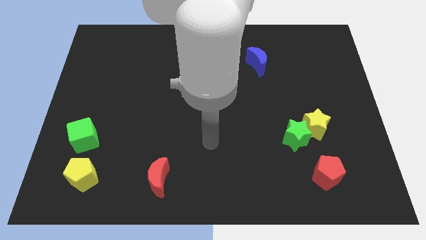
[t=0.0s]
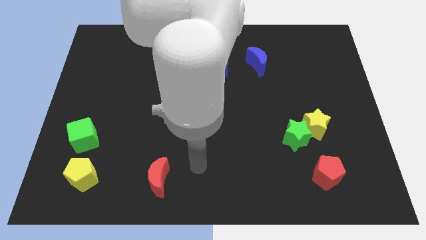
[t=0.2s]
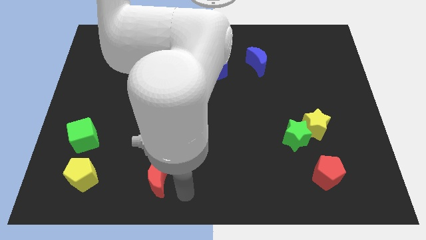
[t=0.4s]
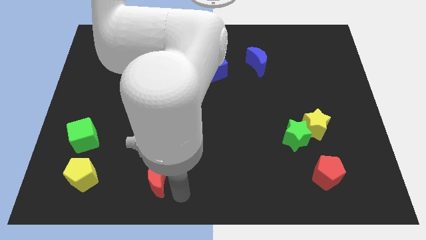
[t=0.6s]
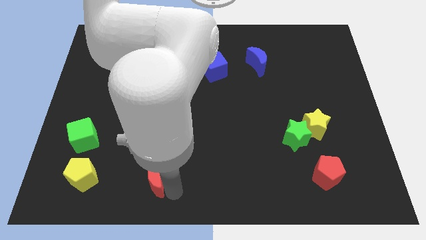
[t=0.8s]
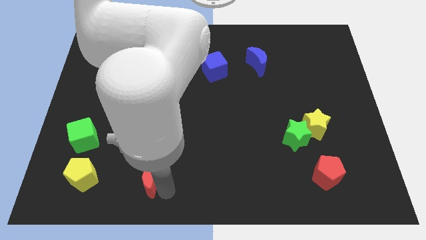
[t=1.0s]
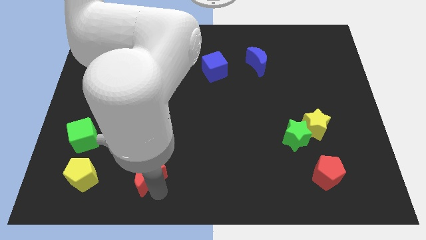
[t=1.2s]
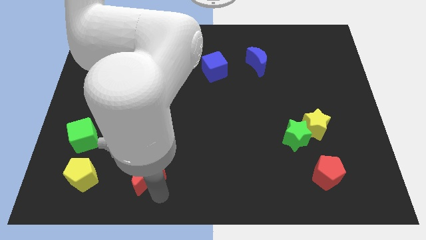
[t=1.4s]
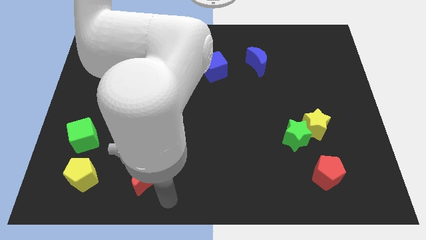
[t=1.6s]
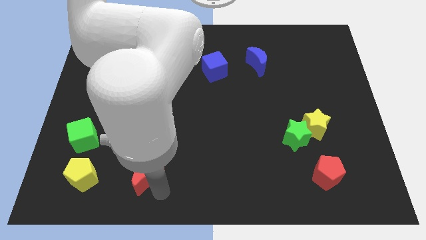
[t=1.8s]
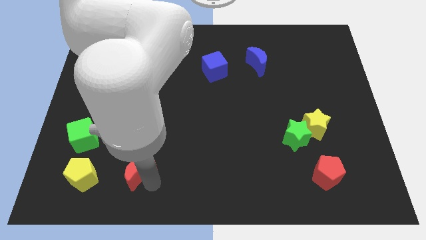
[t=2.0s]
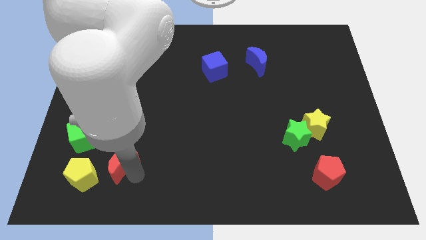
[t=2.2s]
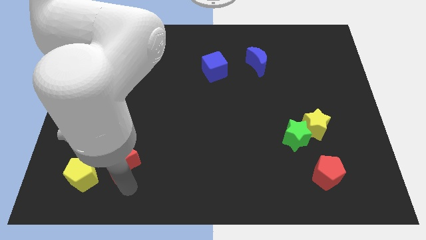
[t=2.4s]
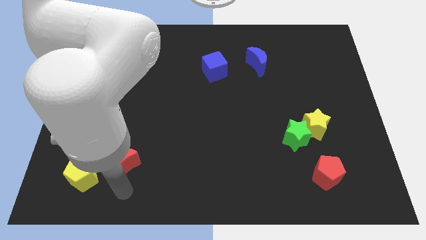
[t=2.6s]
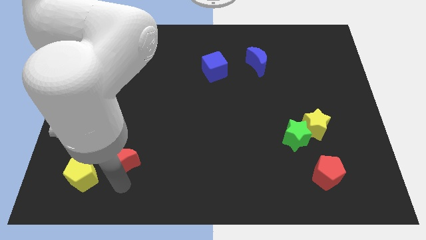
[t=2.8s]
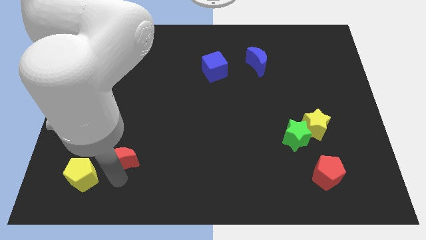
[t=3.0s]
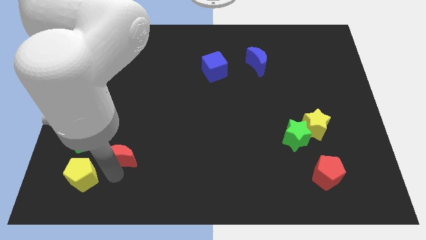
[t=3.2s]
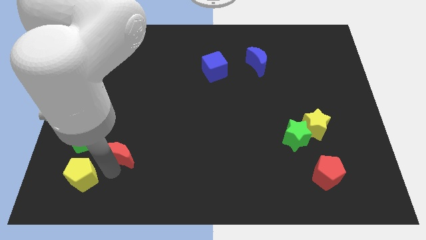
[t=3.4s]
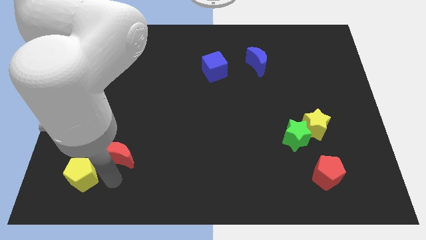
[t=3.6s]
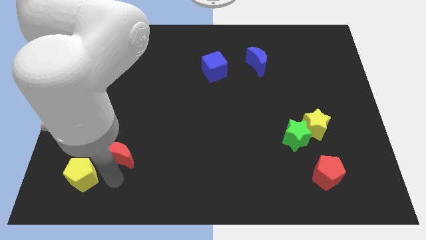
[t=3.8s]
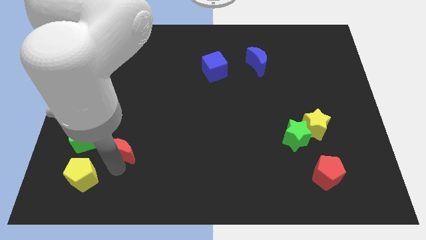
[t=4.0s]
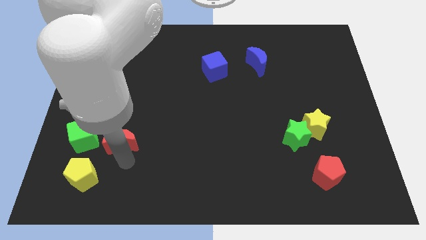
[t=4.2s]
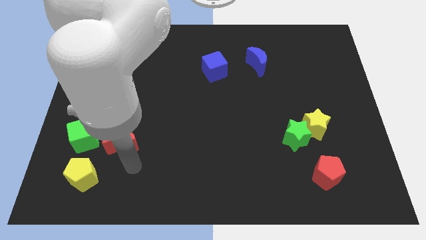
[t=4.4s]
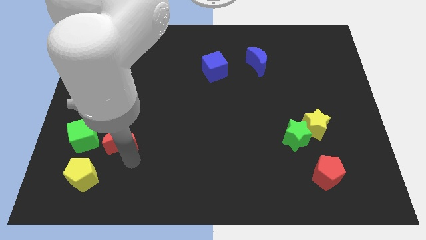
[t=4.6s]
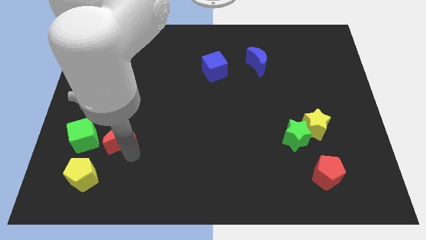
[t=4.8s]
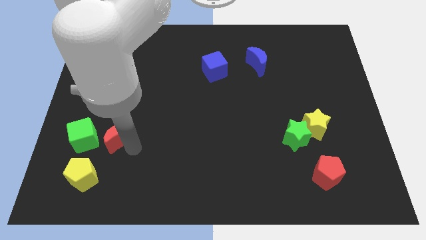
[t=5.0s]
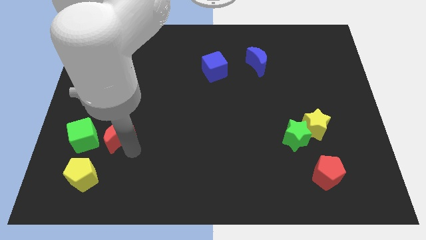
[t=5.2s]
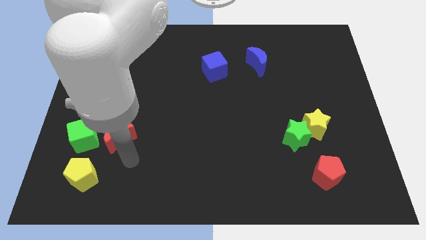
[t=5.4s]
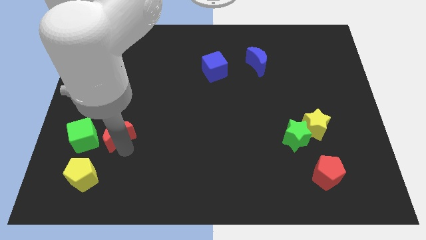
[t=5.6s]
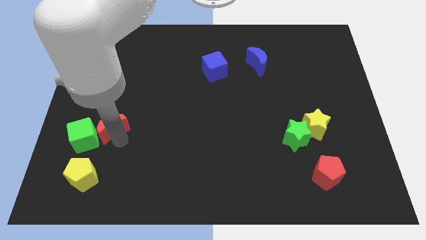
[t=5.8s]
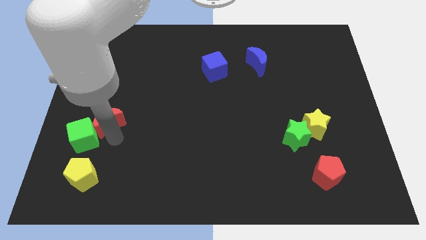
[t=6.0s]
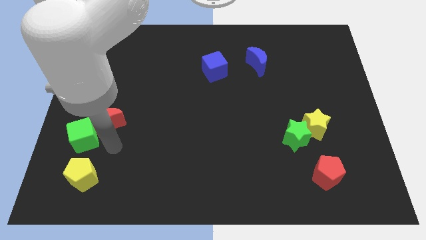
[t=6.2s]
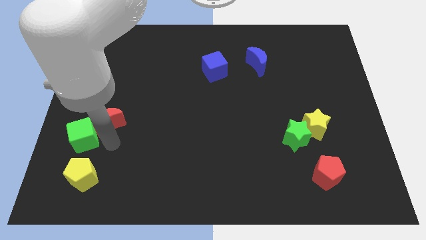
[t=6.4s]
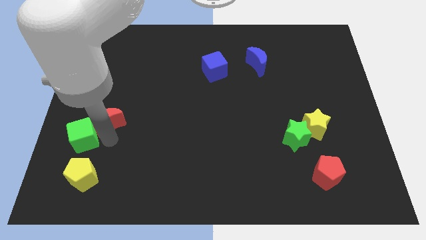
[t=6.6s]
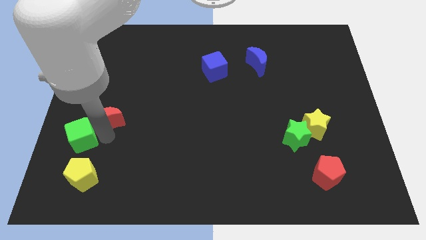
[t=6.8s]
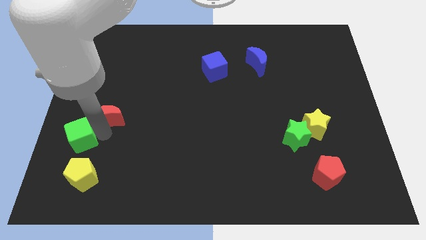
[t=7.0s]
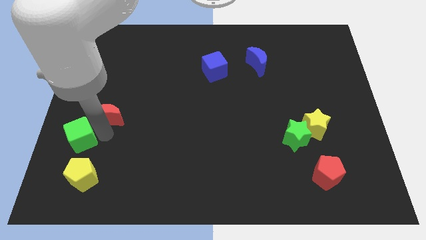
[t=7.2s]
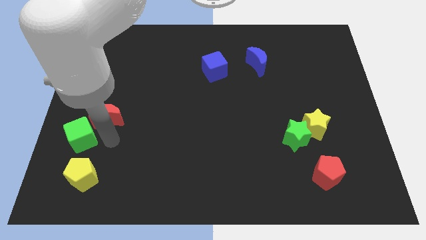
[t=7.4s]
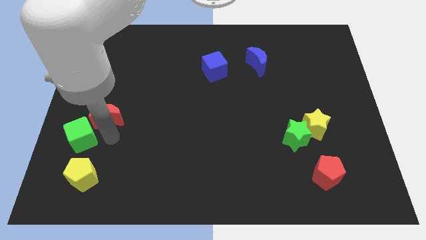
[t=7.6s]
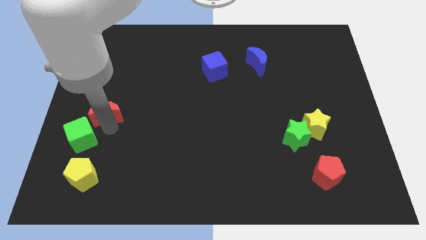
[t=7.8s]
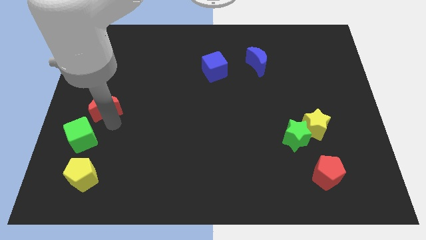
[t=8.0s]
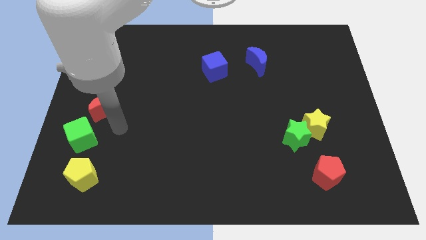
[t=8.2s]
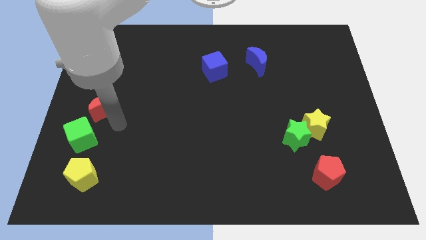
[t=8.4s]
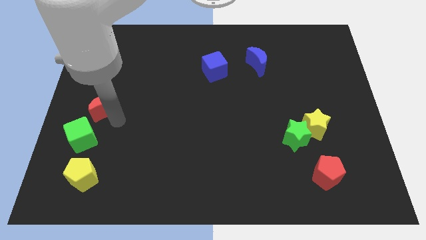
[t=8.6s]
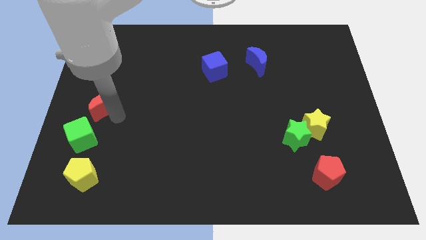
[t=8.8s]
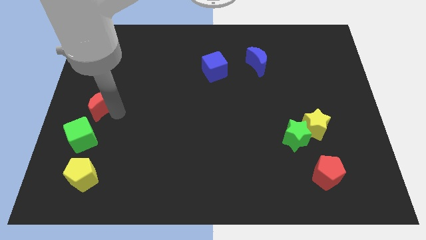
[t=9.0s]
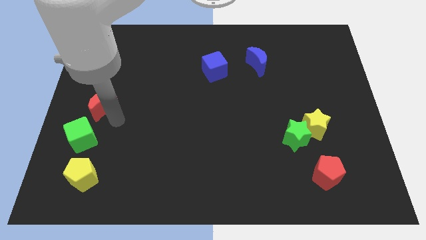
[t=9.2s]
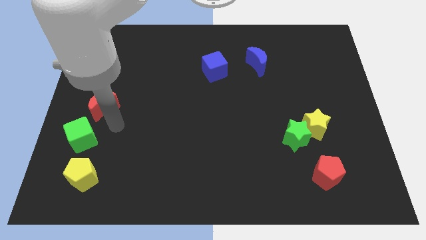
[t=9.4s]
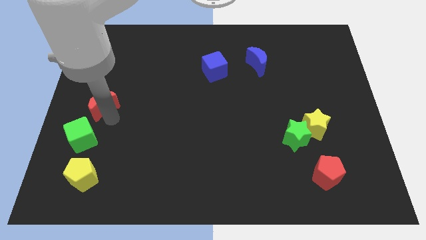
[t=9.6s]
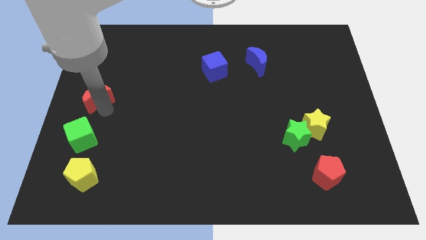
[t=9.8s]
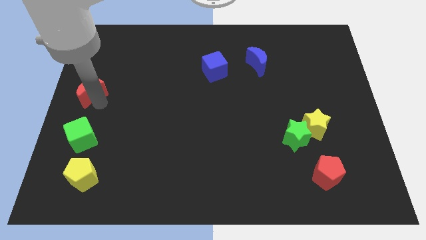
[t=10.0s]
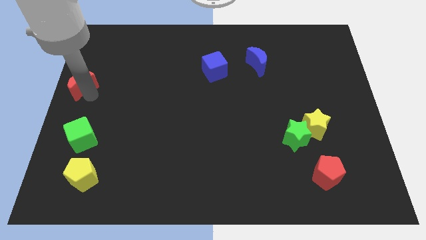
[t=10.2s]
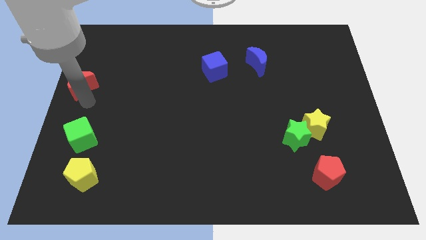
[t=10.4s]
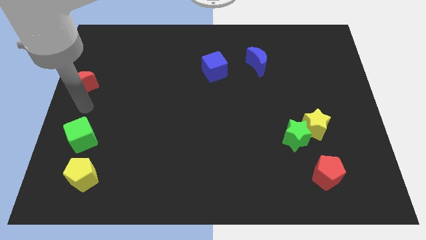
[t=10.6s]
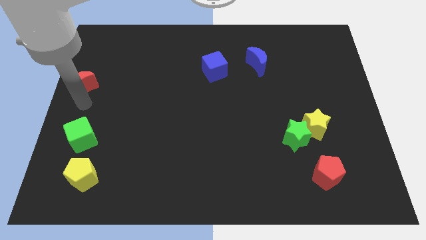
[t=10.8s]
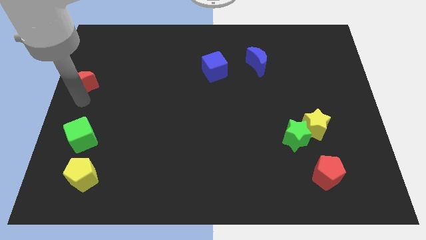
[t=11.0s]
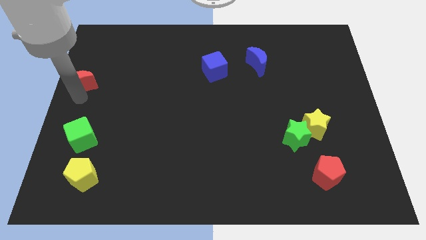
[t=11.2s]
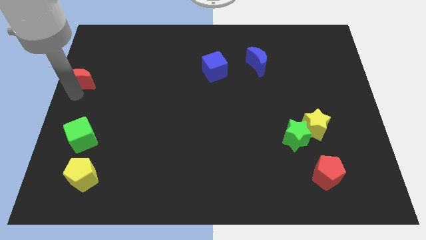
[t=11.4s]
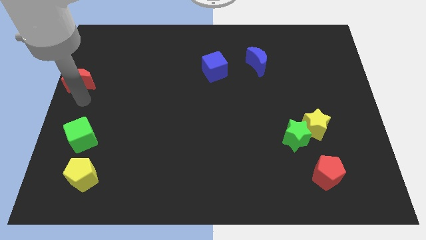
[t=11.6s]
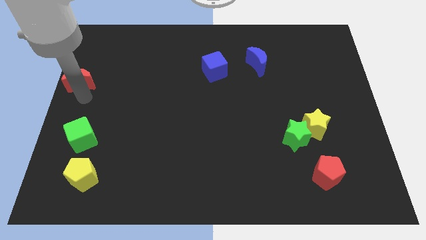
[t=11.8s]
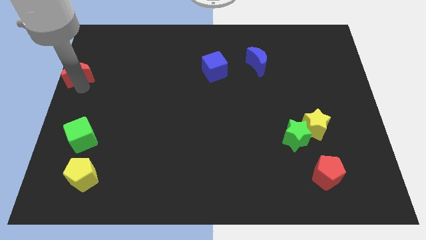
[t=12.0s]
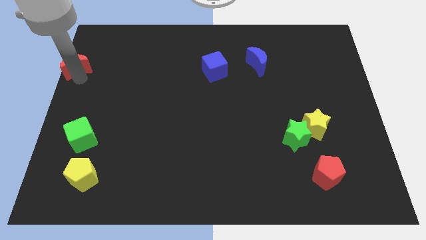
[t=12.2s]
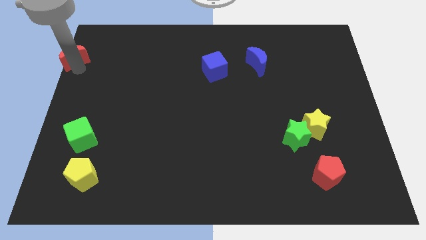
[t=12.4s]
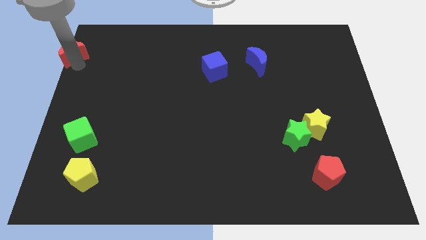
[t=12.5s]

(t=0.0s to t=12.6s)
slide the red moon to the top left of the board

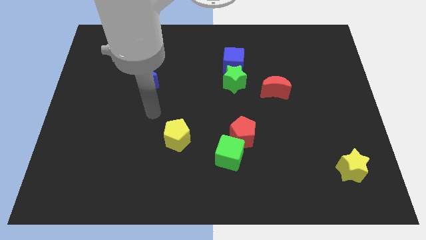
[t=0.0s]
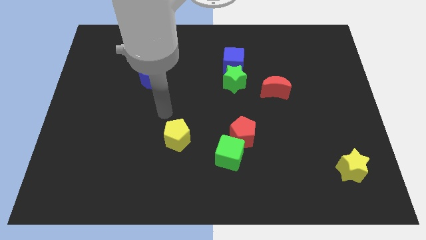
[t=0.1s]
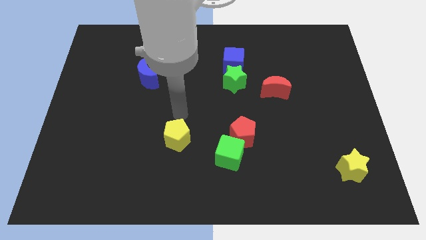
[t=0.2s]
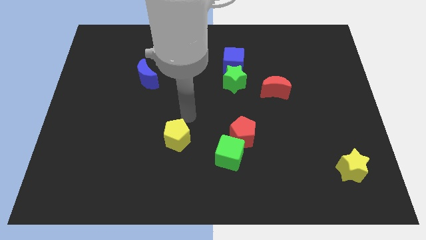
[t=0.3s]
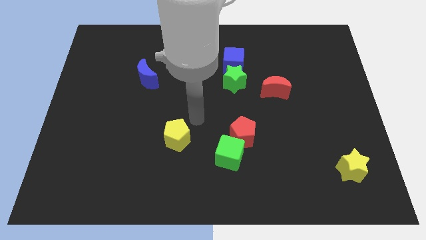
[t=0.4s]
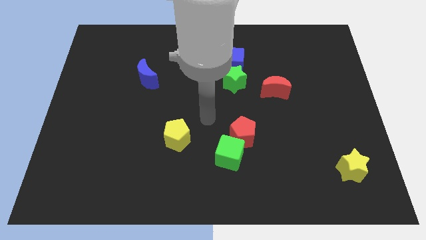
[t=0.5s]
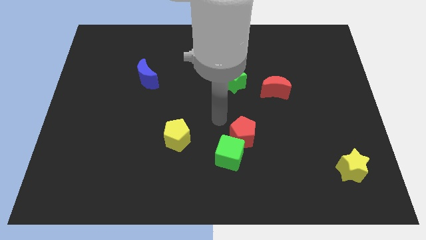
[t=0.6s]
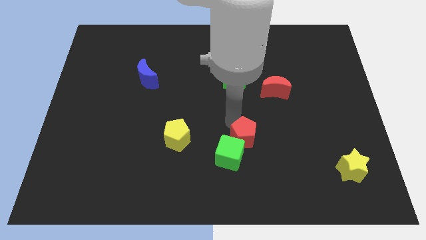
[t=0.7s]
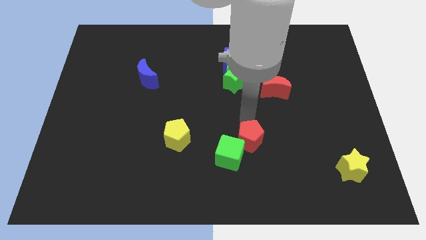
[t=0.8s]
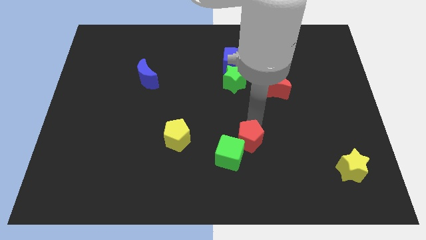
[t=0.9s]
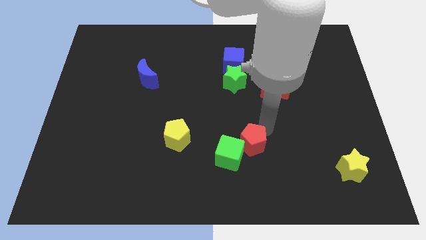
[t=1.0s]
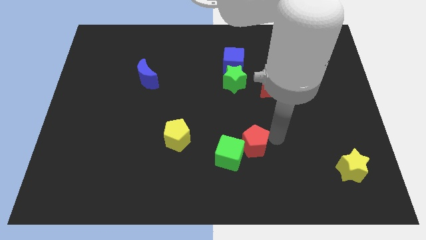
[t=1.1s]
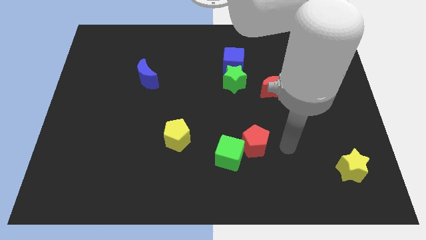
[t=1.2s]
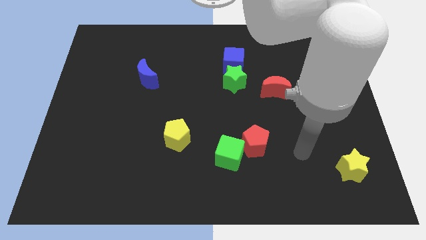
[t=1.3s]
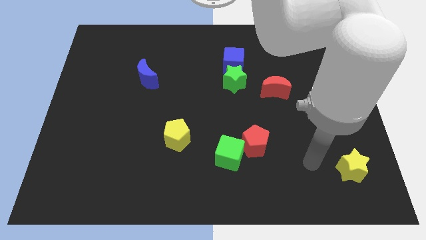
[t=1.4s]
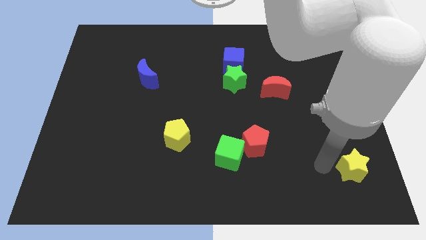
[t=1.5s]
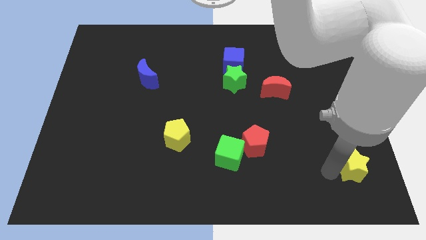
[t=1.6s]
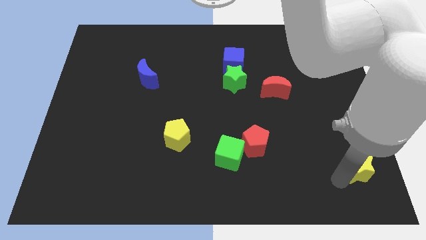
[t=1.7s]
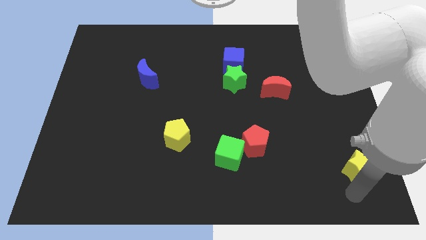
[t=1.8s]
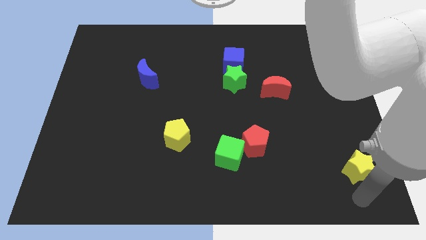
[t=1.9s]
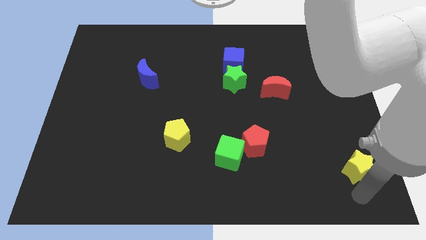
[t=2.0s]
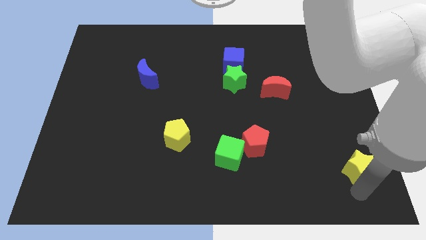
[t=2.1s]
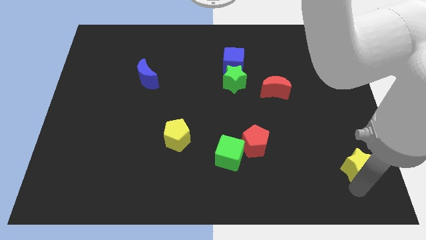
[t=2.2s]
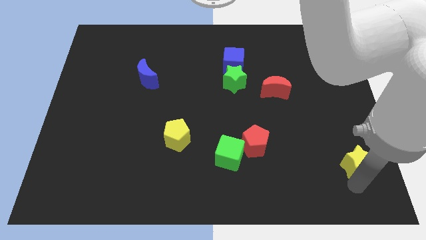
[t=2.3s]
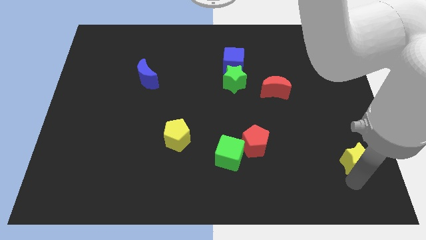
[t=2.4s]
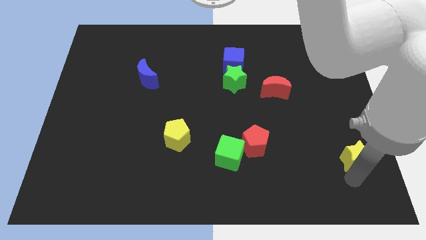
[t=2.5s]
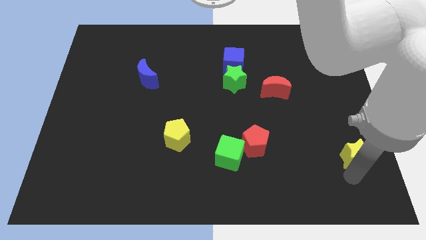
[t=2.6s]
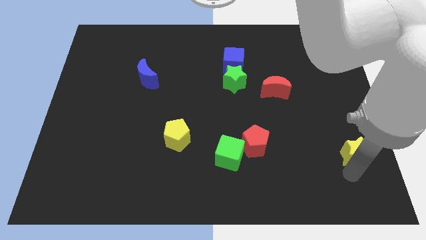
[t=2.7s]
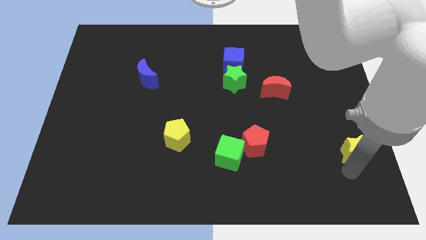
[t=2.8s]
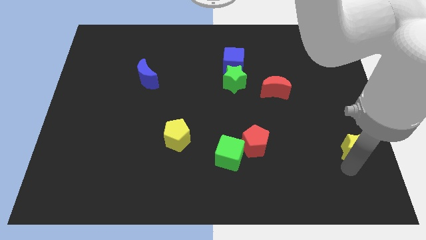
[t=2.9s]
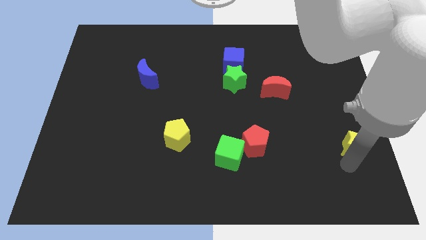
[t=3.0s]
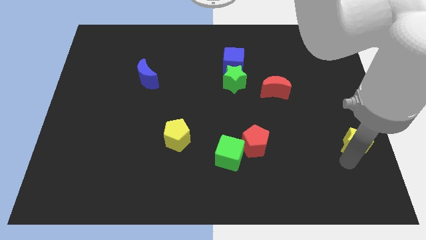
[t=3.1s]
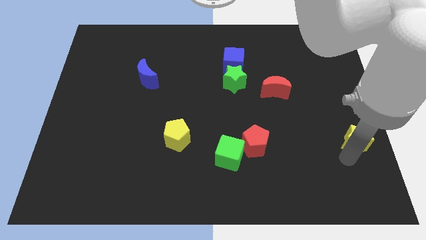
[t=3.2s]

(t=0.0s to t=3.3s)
push the yellow star to the right side of the board
